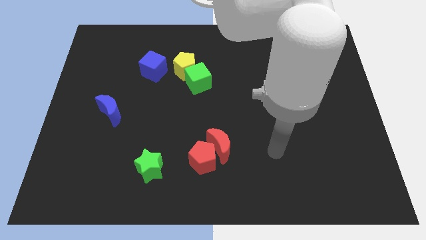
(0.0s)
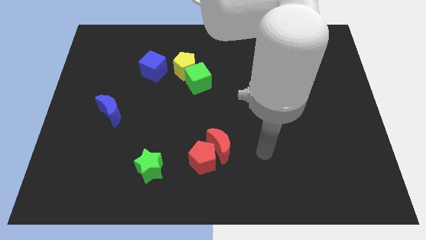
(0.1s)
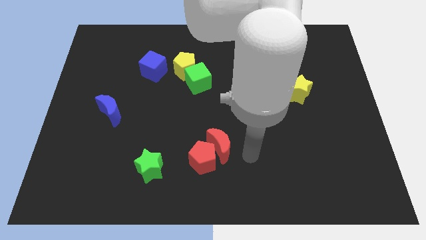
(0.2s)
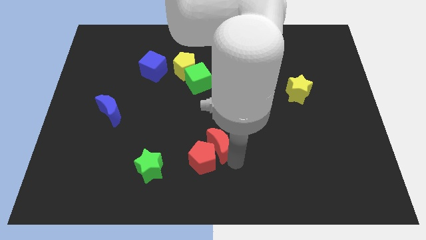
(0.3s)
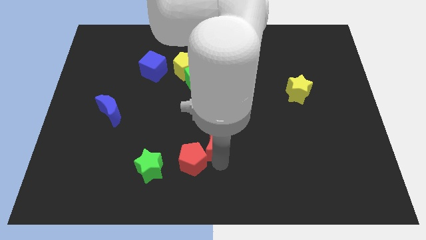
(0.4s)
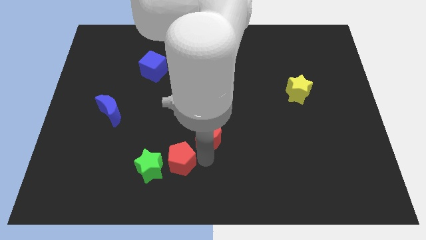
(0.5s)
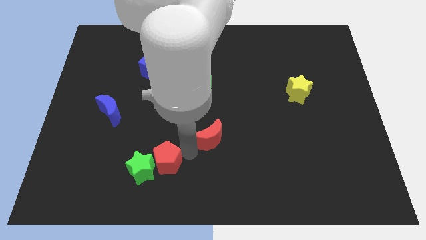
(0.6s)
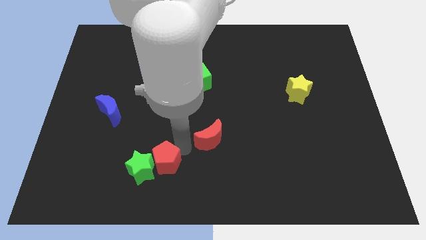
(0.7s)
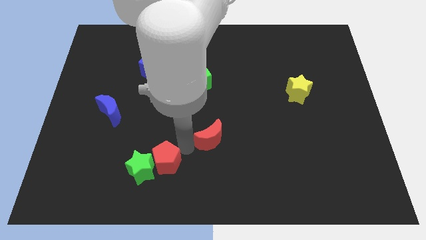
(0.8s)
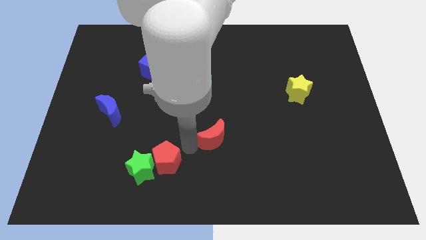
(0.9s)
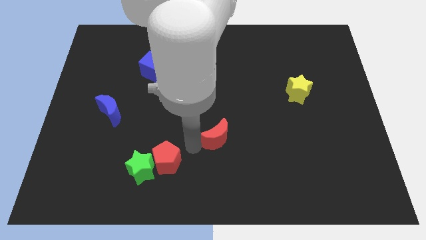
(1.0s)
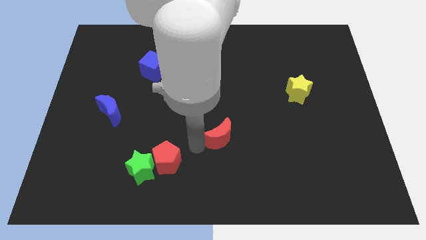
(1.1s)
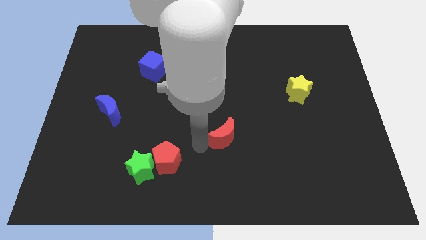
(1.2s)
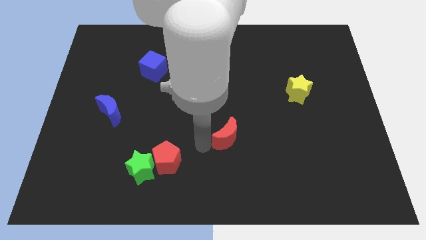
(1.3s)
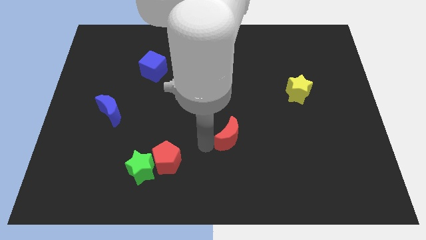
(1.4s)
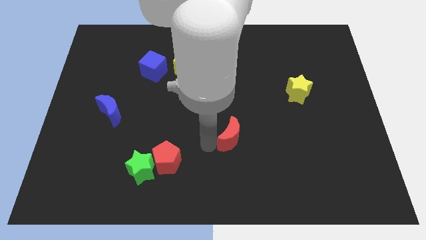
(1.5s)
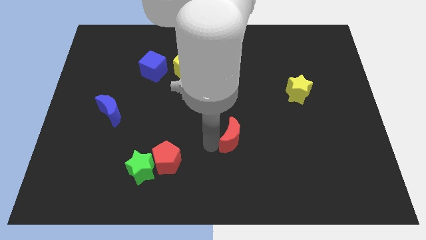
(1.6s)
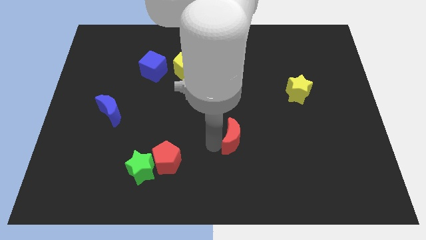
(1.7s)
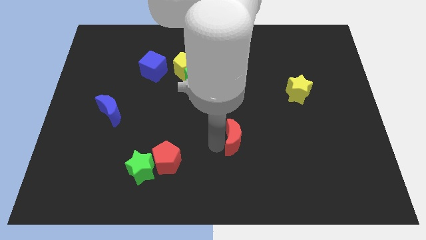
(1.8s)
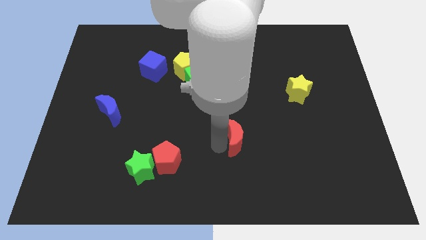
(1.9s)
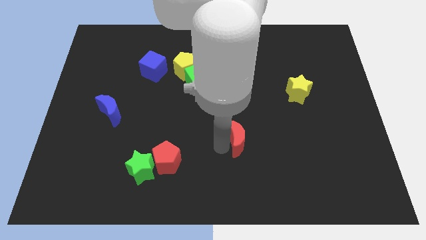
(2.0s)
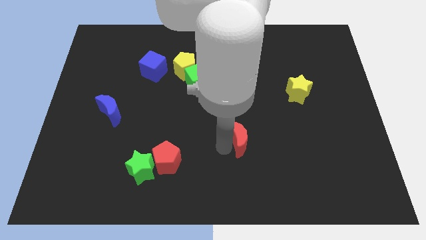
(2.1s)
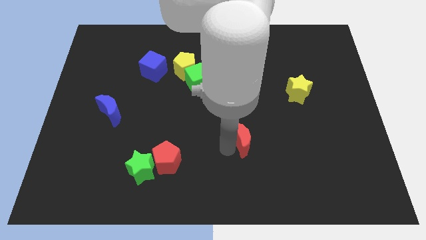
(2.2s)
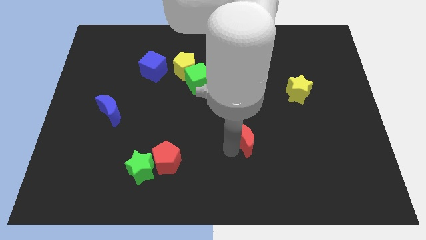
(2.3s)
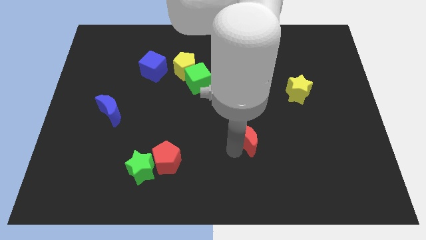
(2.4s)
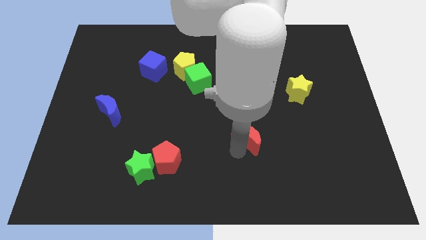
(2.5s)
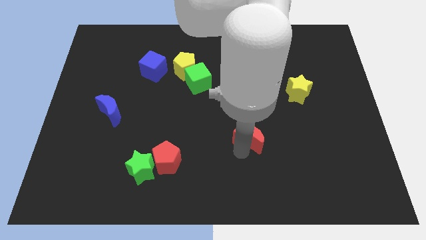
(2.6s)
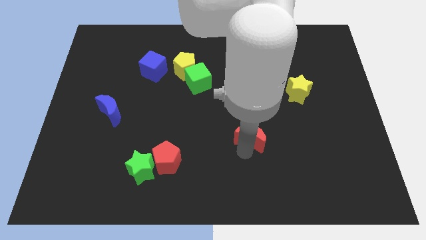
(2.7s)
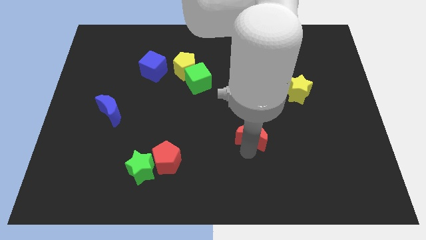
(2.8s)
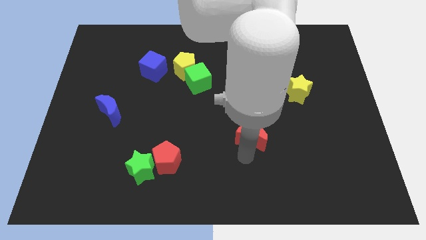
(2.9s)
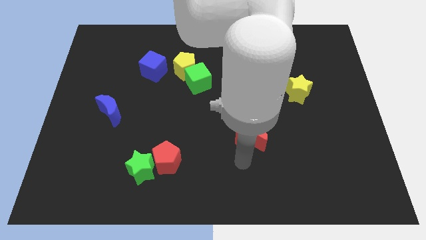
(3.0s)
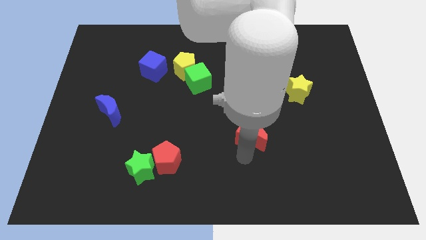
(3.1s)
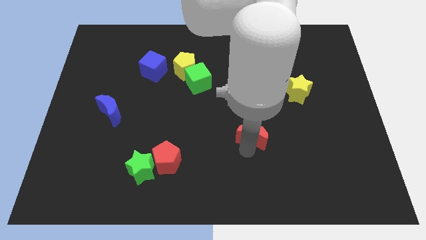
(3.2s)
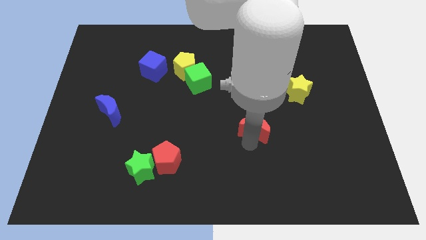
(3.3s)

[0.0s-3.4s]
push the red moon slightly up and right diagonally

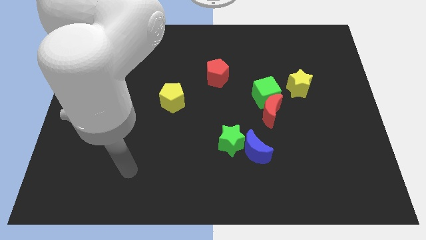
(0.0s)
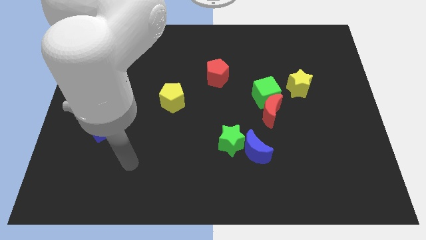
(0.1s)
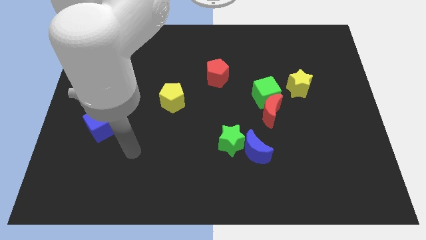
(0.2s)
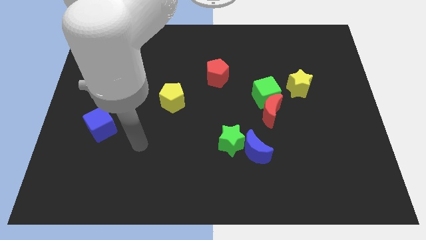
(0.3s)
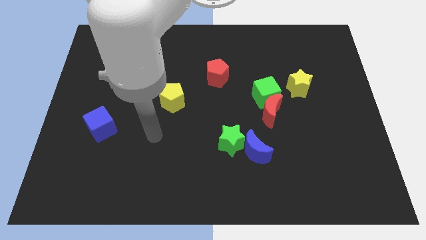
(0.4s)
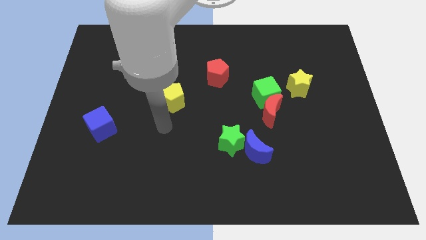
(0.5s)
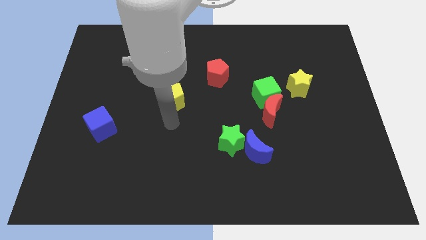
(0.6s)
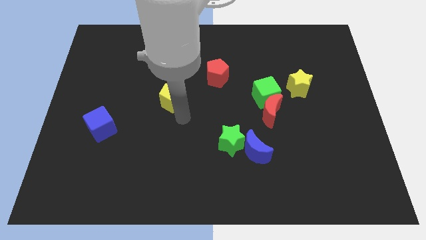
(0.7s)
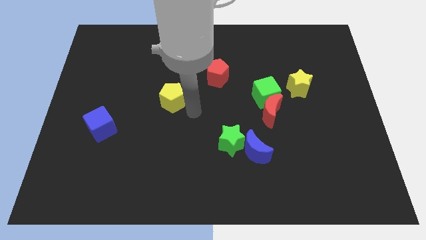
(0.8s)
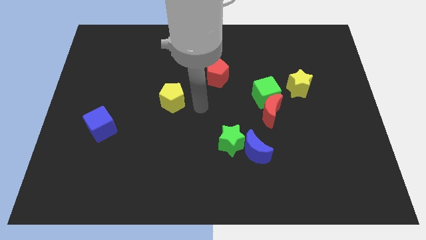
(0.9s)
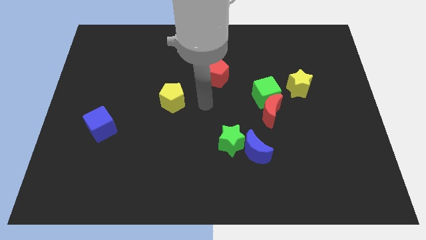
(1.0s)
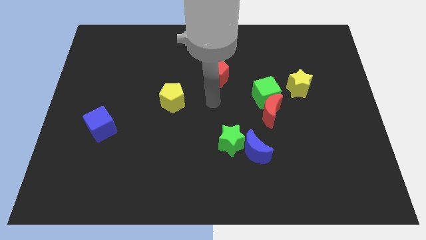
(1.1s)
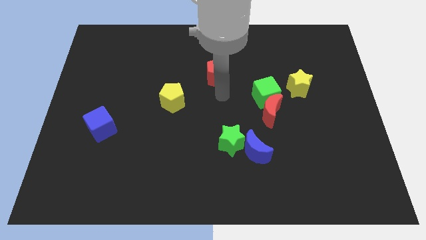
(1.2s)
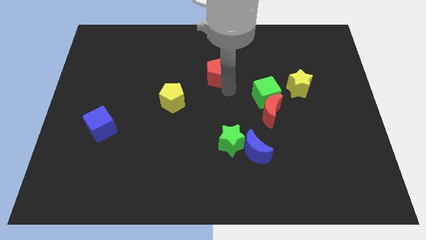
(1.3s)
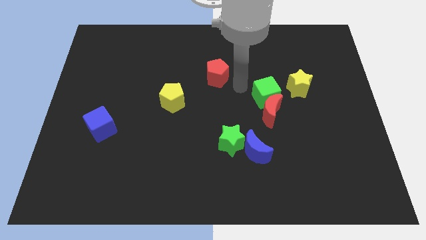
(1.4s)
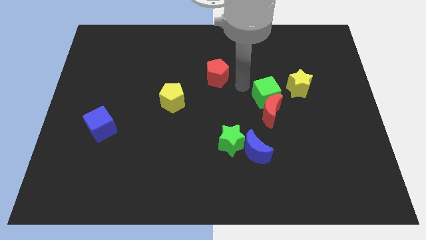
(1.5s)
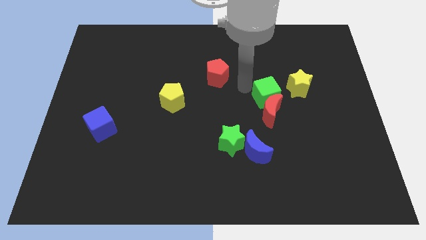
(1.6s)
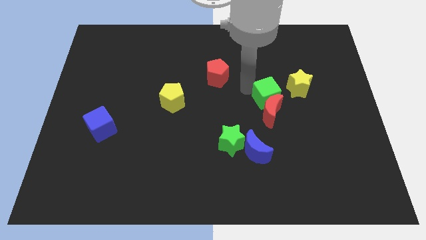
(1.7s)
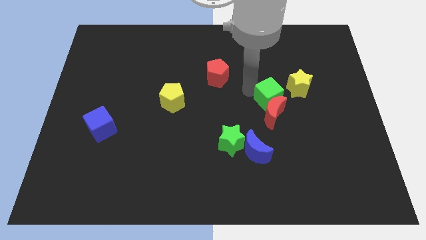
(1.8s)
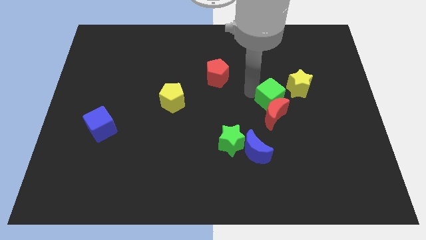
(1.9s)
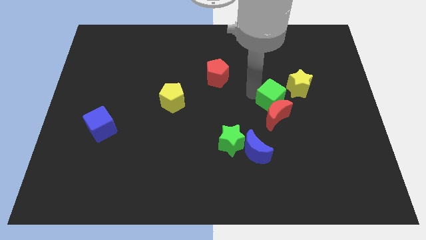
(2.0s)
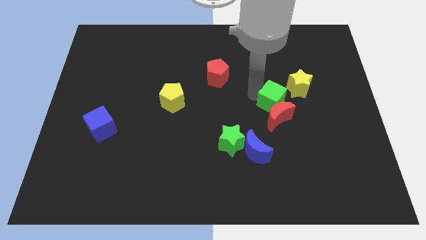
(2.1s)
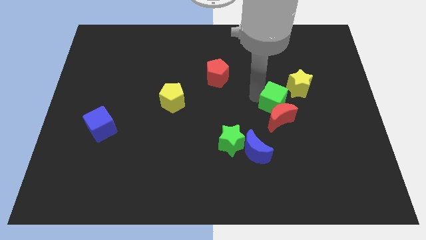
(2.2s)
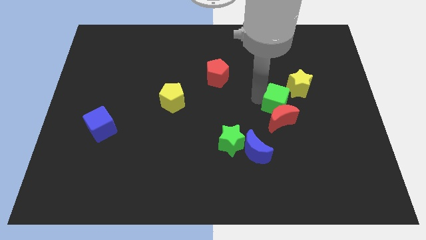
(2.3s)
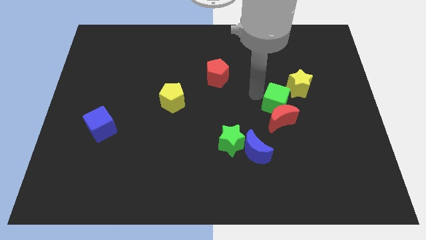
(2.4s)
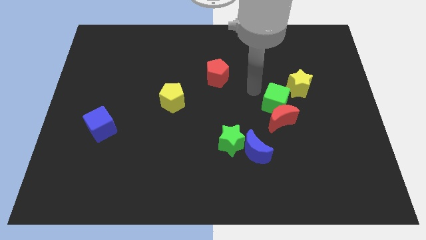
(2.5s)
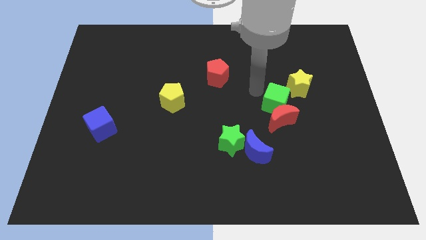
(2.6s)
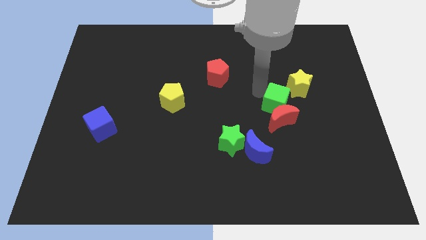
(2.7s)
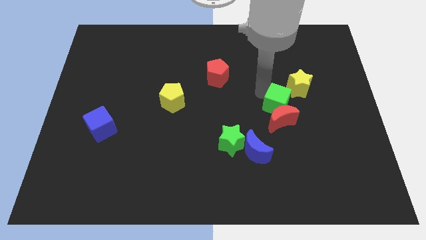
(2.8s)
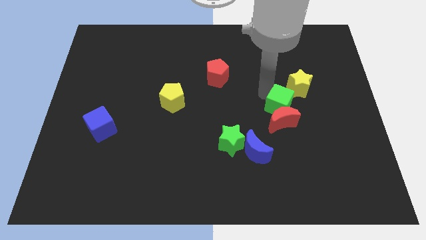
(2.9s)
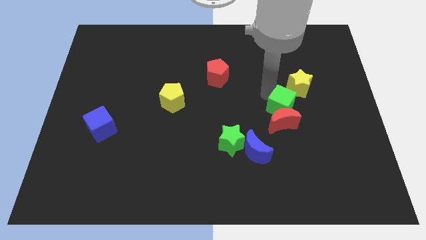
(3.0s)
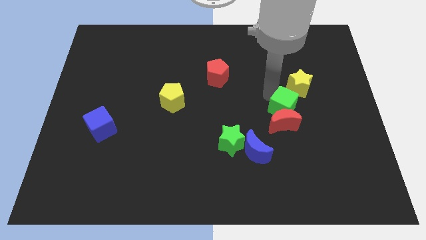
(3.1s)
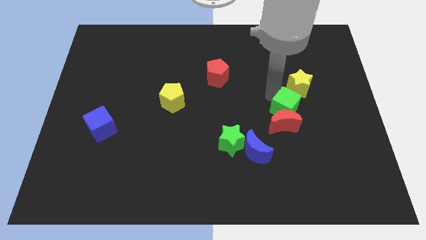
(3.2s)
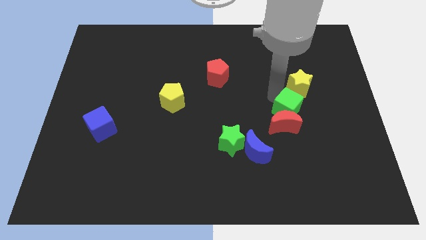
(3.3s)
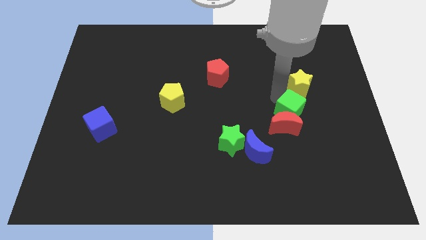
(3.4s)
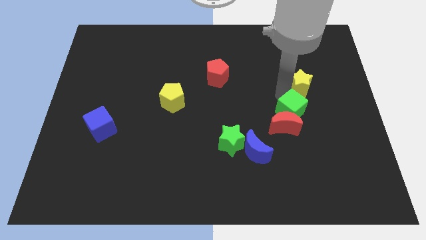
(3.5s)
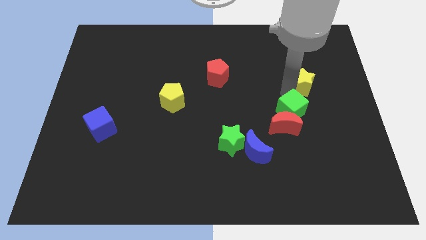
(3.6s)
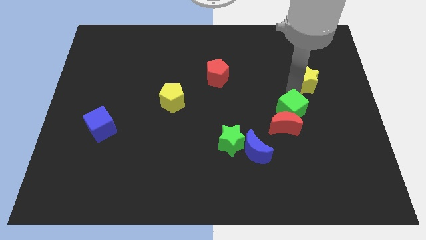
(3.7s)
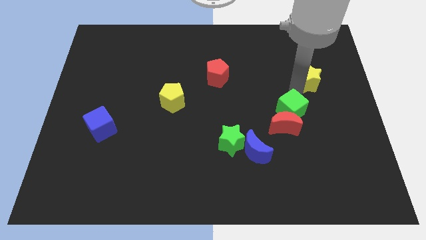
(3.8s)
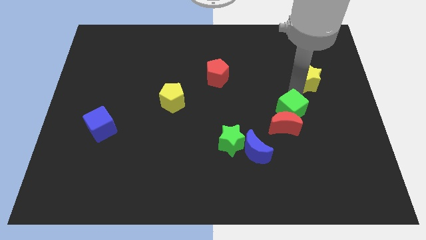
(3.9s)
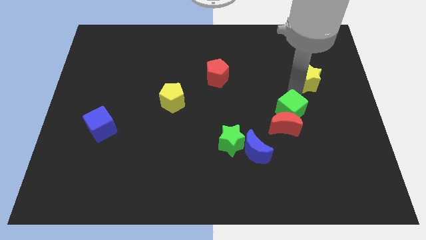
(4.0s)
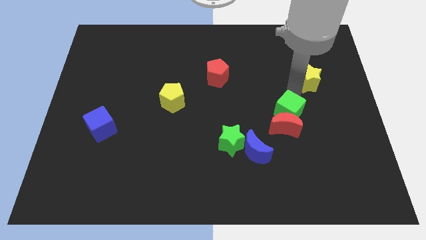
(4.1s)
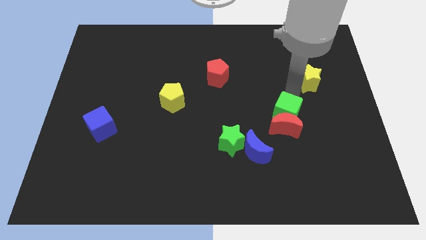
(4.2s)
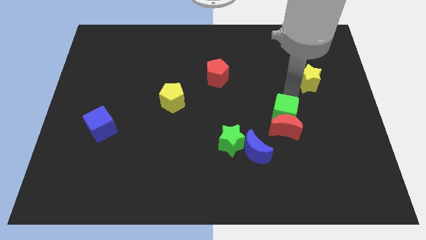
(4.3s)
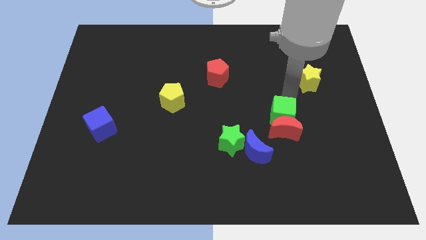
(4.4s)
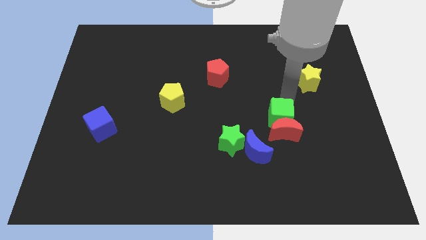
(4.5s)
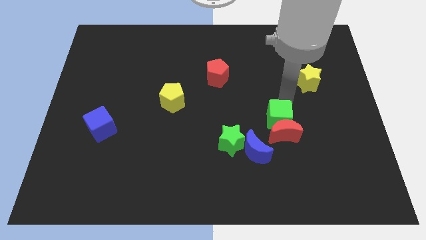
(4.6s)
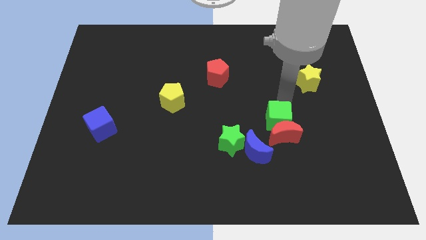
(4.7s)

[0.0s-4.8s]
move the green cube a little down
